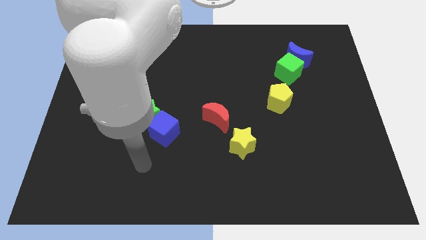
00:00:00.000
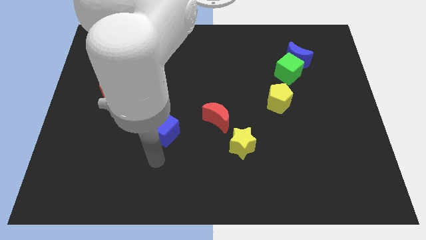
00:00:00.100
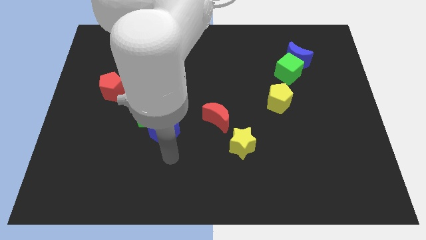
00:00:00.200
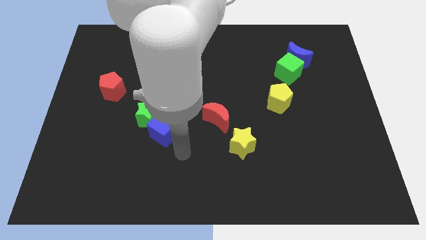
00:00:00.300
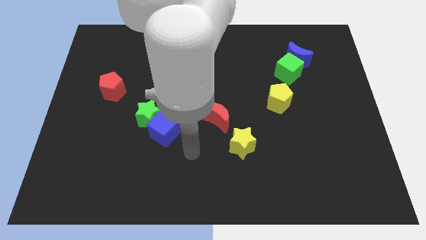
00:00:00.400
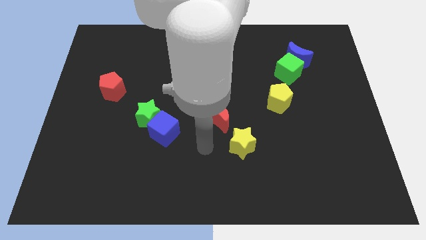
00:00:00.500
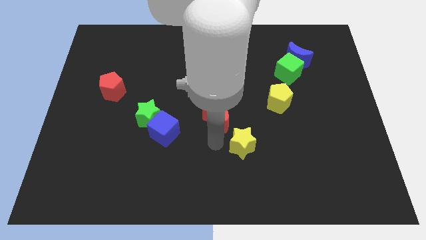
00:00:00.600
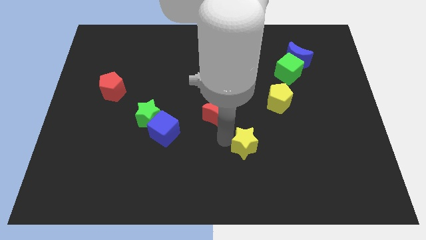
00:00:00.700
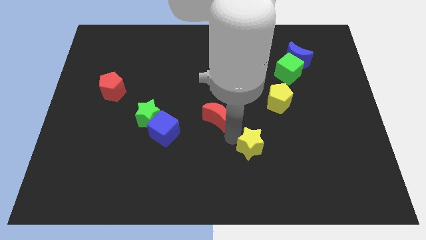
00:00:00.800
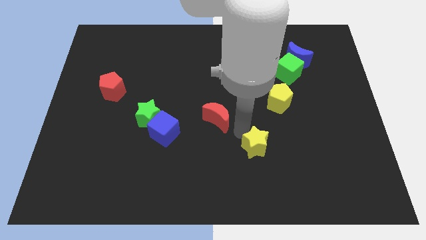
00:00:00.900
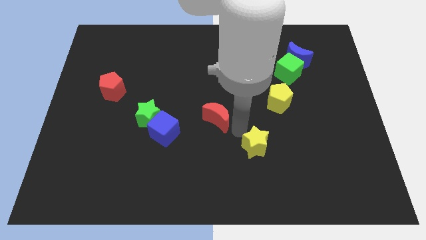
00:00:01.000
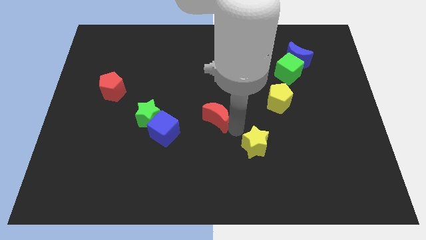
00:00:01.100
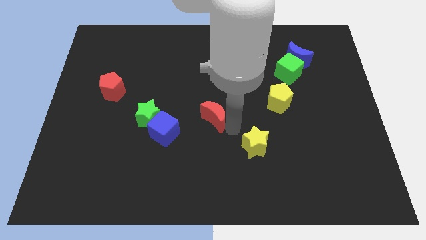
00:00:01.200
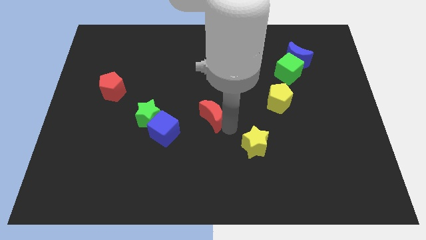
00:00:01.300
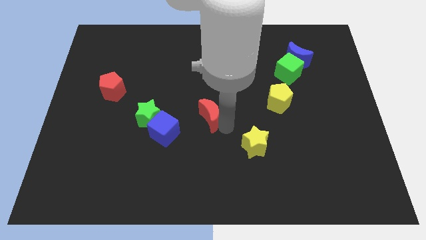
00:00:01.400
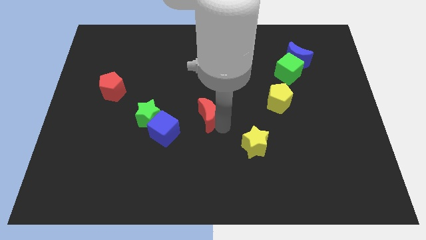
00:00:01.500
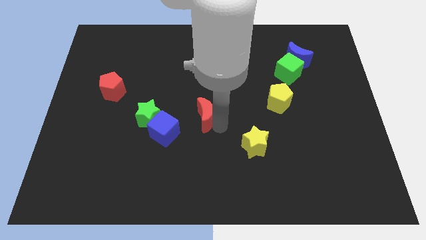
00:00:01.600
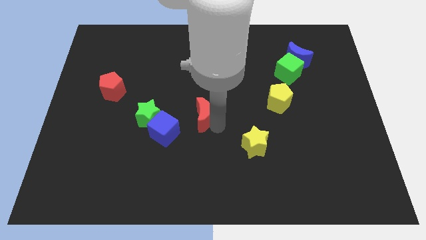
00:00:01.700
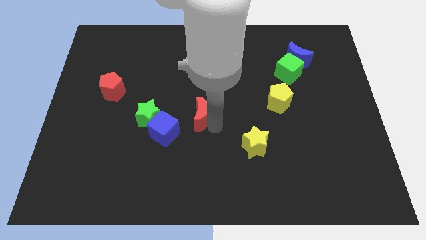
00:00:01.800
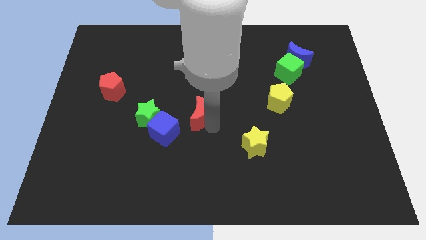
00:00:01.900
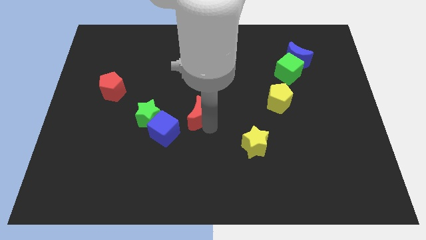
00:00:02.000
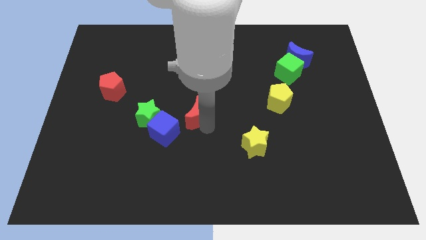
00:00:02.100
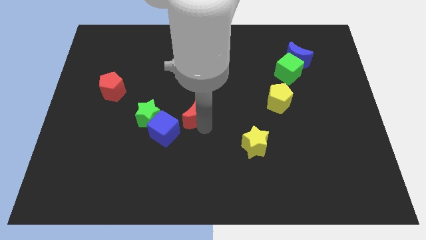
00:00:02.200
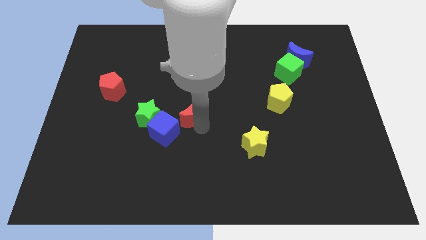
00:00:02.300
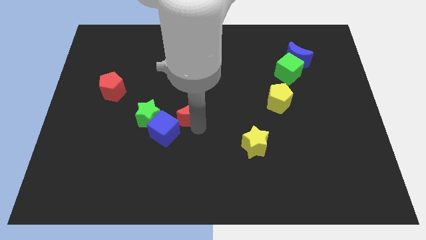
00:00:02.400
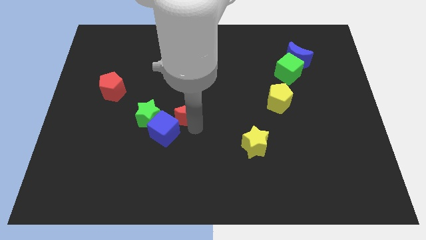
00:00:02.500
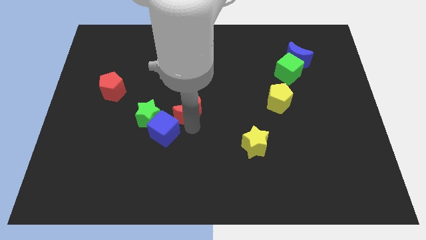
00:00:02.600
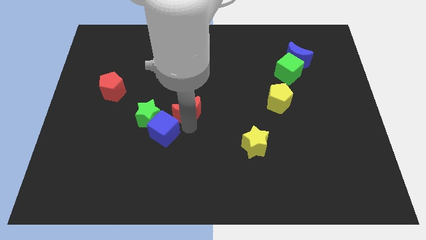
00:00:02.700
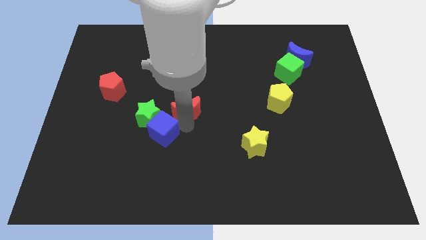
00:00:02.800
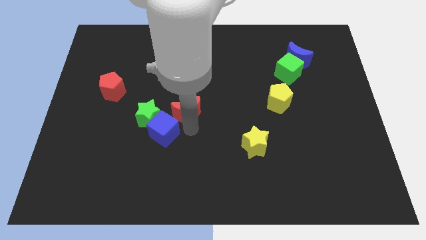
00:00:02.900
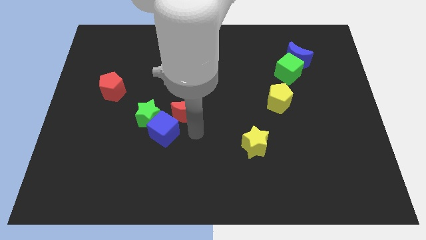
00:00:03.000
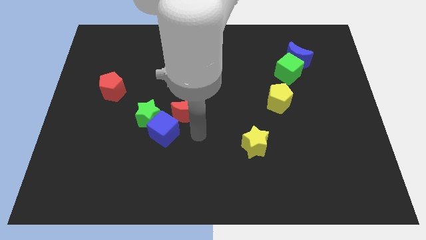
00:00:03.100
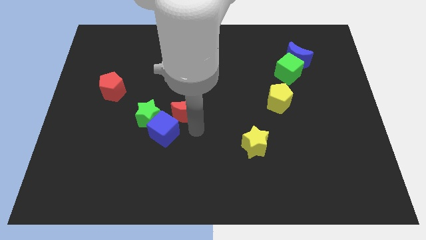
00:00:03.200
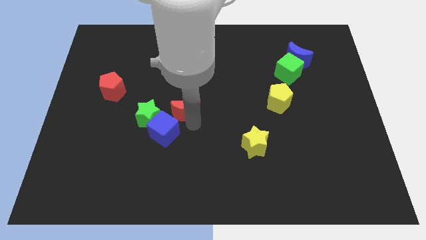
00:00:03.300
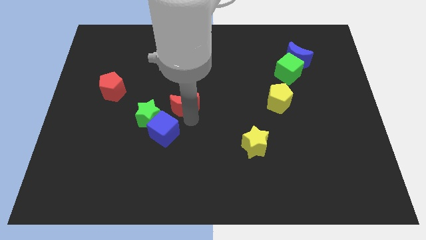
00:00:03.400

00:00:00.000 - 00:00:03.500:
push the red moon diagonally upwards and to the left a little

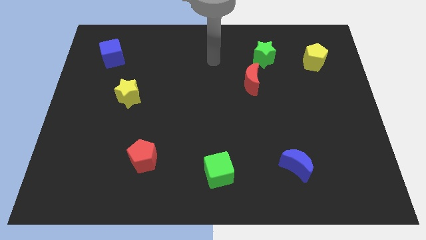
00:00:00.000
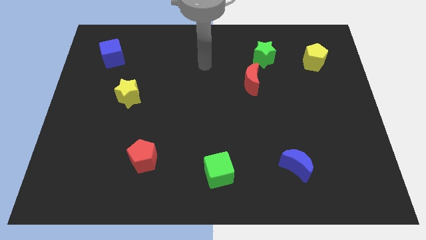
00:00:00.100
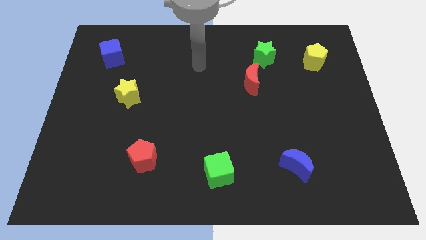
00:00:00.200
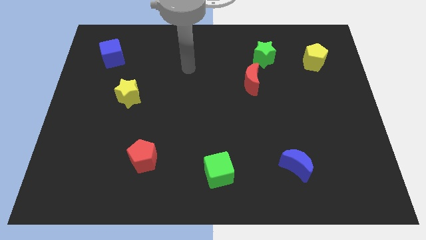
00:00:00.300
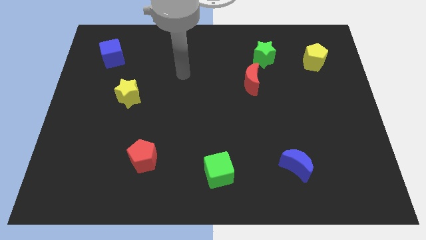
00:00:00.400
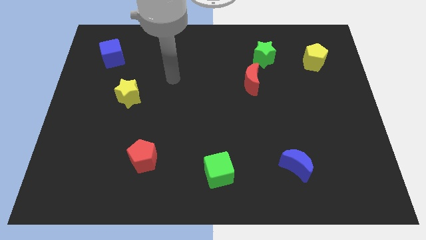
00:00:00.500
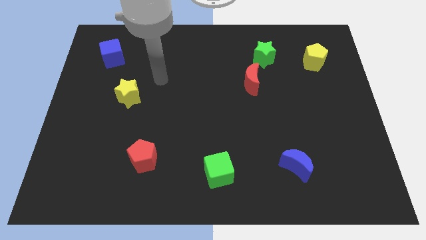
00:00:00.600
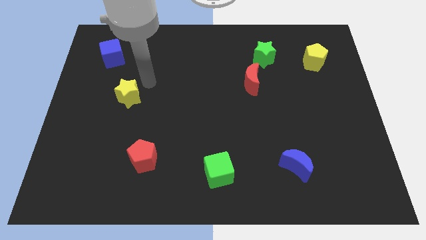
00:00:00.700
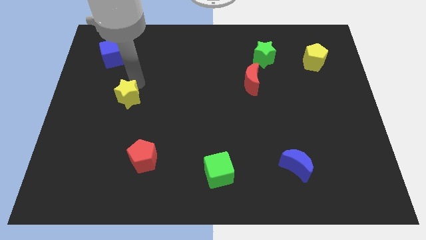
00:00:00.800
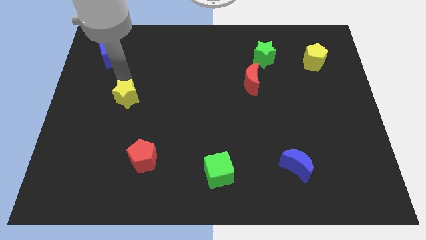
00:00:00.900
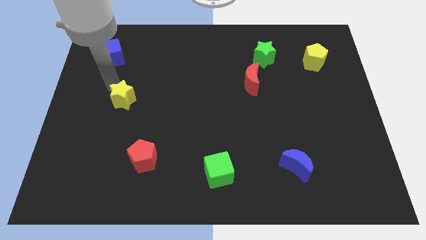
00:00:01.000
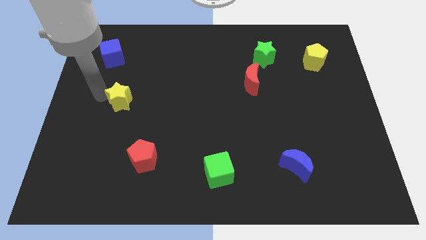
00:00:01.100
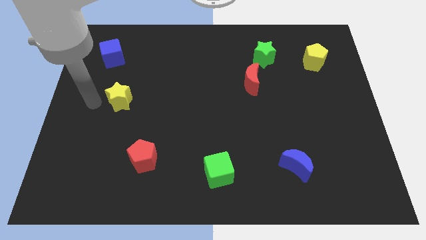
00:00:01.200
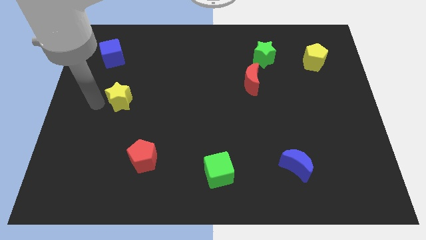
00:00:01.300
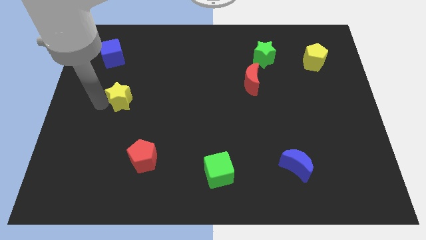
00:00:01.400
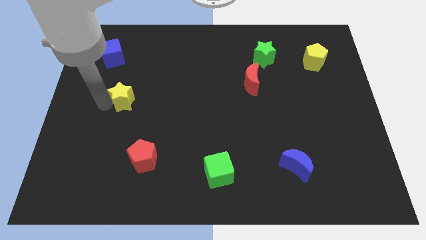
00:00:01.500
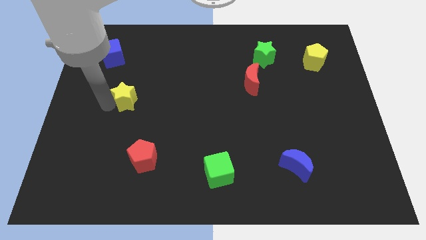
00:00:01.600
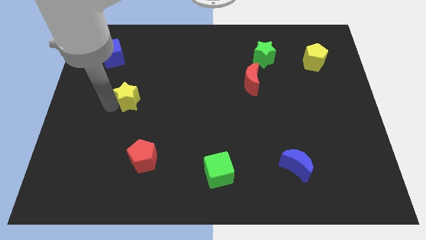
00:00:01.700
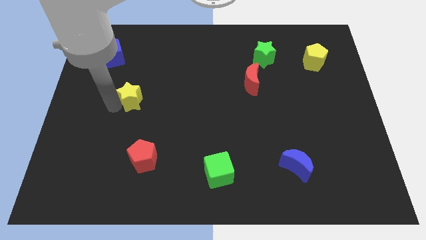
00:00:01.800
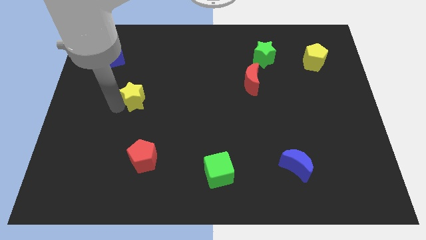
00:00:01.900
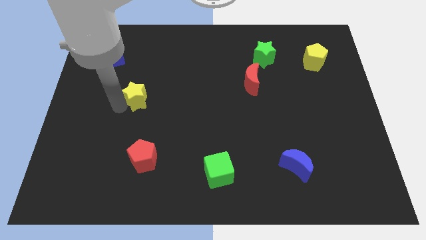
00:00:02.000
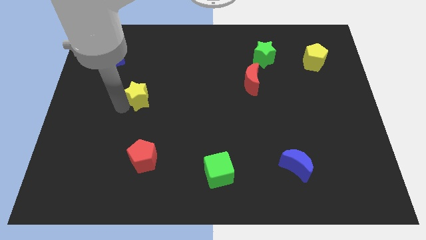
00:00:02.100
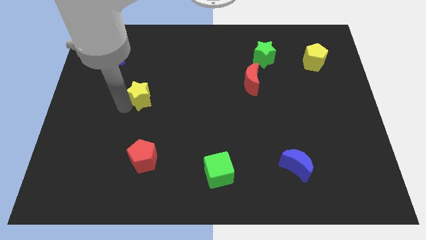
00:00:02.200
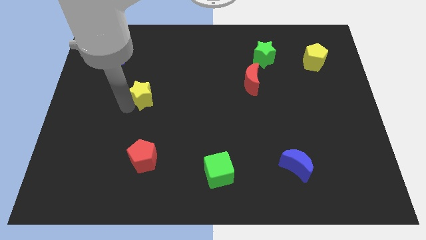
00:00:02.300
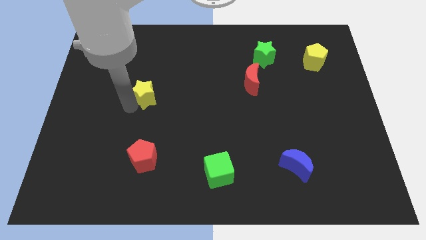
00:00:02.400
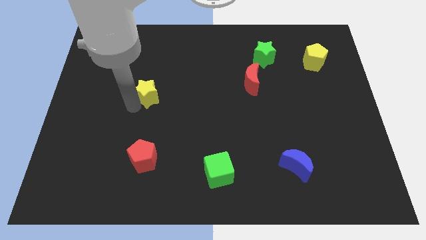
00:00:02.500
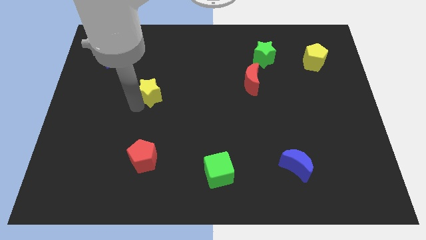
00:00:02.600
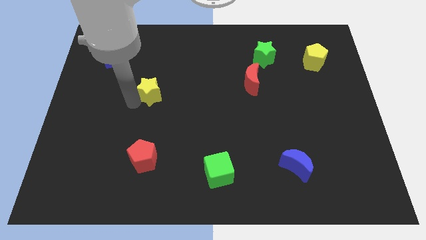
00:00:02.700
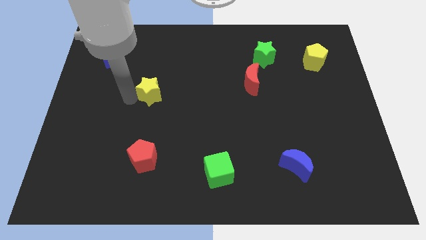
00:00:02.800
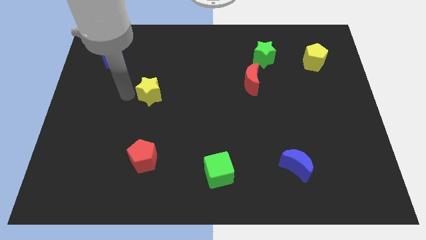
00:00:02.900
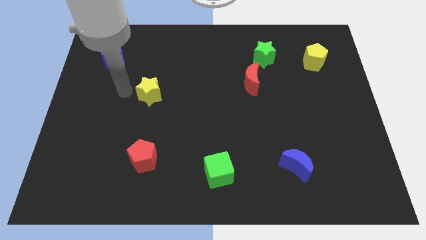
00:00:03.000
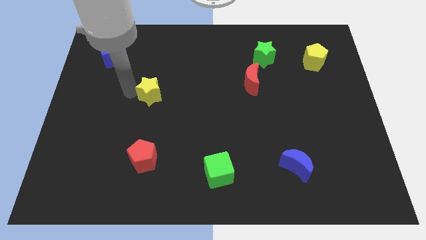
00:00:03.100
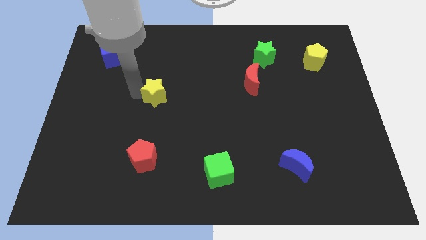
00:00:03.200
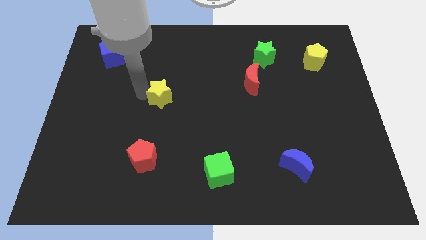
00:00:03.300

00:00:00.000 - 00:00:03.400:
slightly move the yellow star right

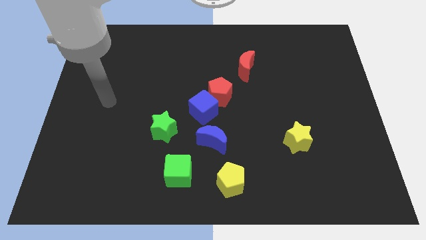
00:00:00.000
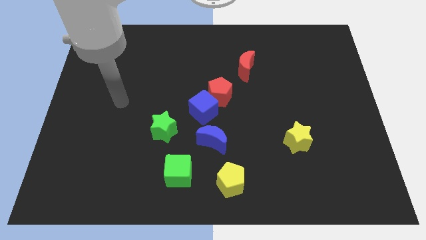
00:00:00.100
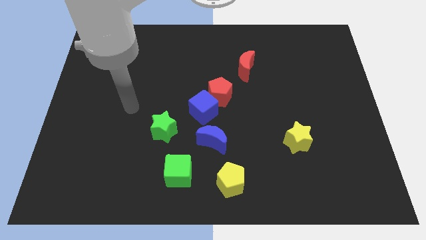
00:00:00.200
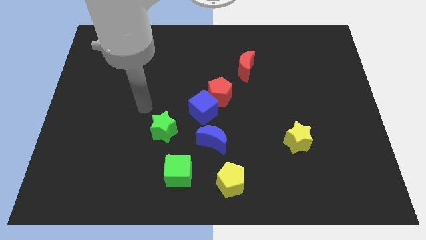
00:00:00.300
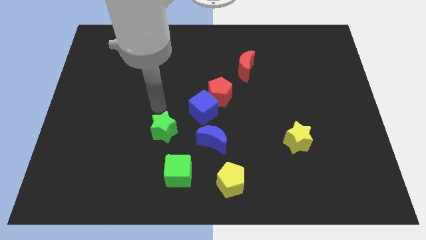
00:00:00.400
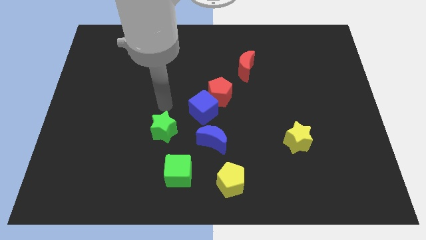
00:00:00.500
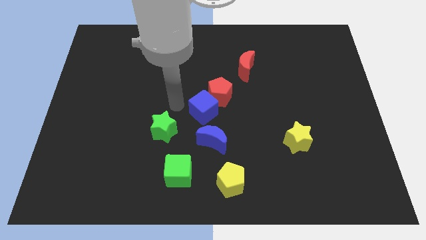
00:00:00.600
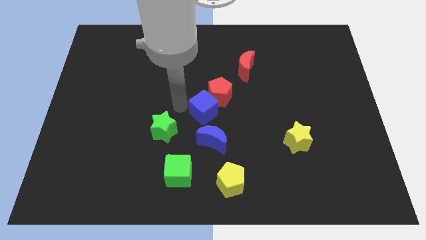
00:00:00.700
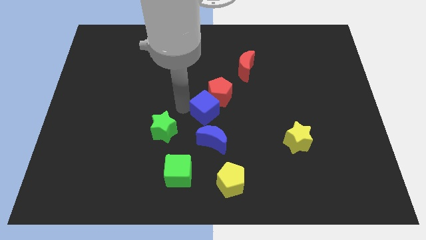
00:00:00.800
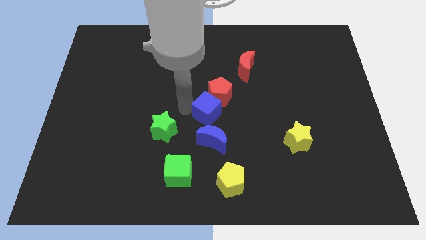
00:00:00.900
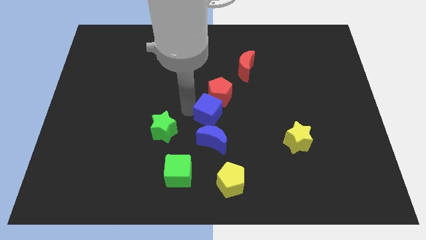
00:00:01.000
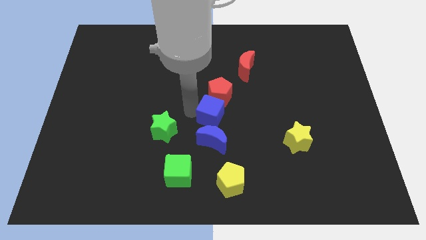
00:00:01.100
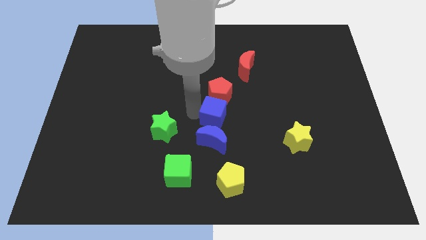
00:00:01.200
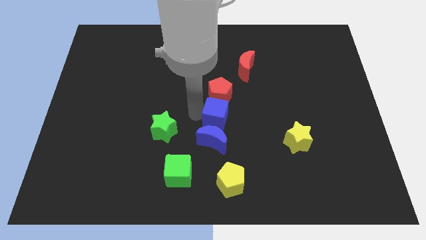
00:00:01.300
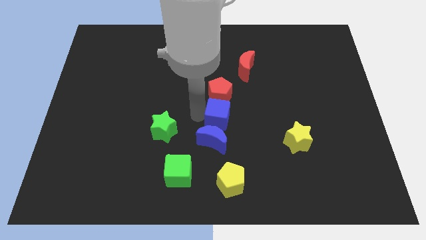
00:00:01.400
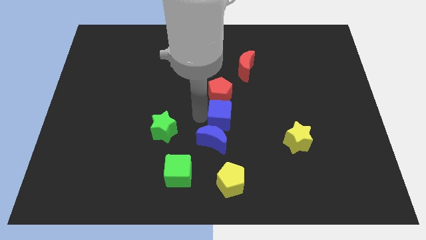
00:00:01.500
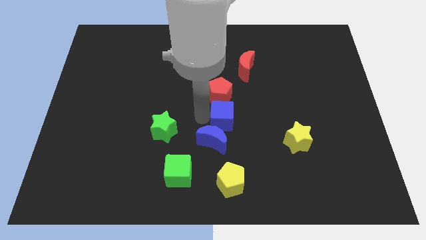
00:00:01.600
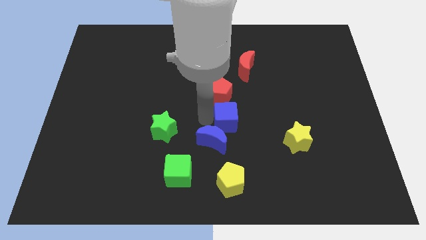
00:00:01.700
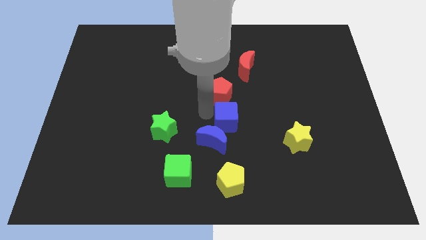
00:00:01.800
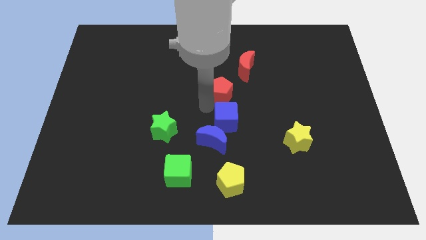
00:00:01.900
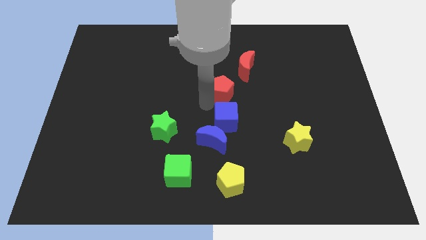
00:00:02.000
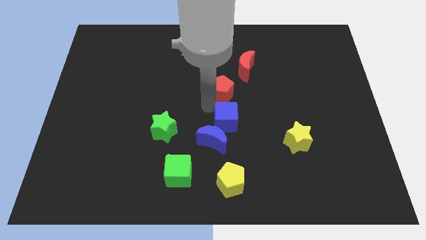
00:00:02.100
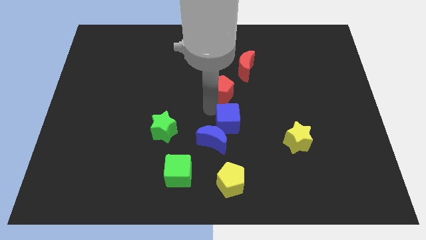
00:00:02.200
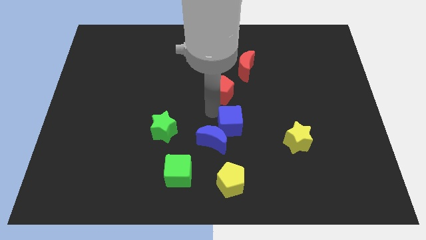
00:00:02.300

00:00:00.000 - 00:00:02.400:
slightly push the blue cube diagonally down and right
